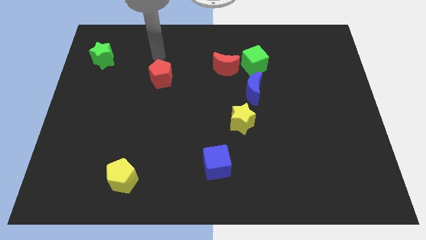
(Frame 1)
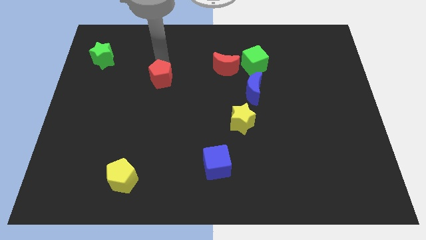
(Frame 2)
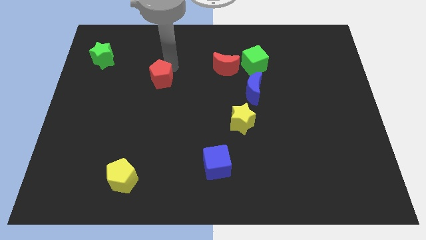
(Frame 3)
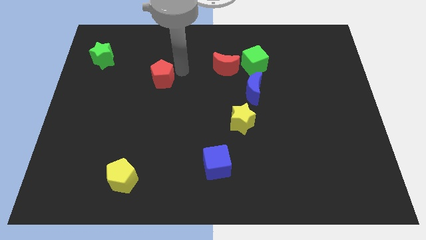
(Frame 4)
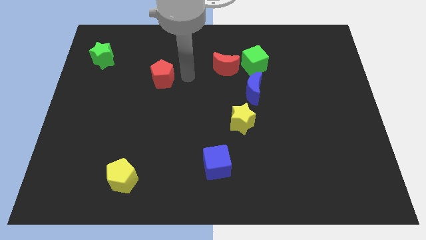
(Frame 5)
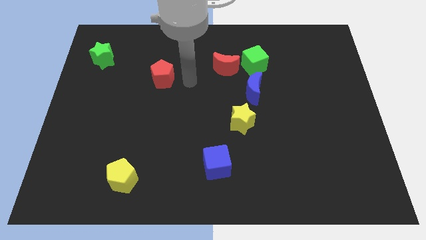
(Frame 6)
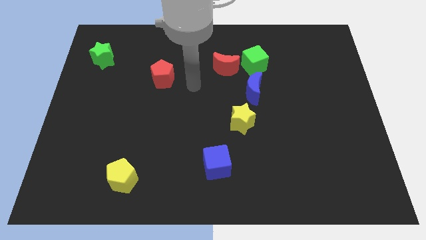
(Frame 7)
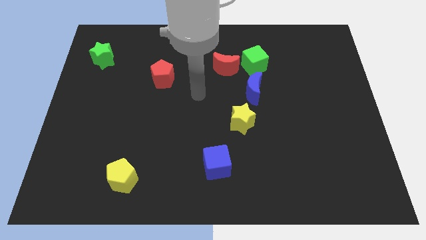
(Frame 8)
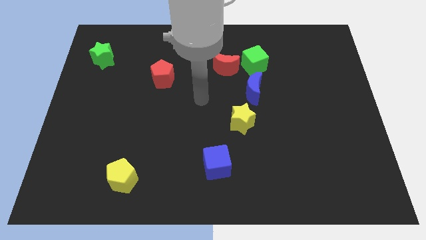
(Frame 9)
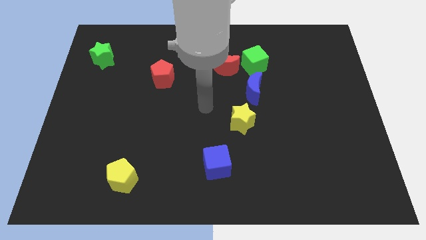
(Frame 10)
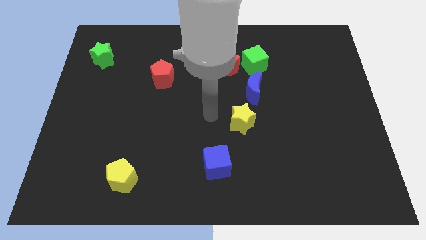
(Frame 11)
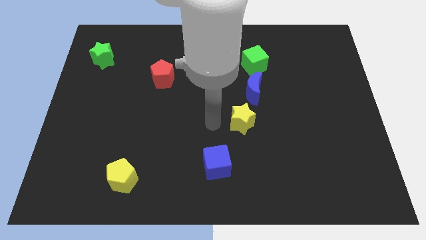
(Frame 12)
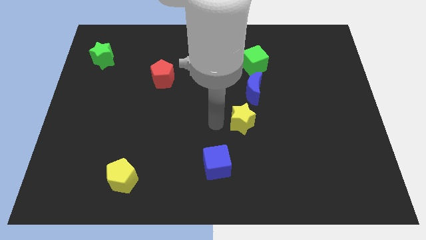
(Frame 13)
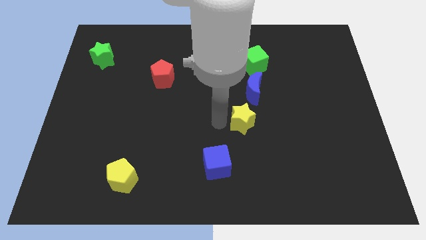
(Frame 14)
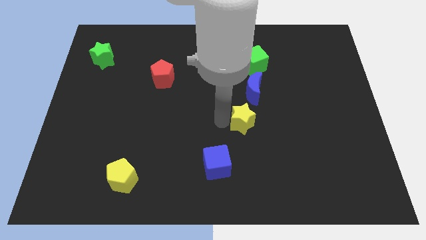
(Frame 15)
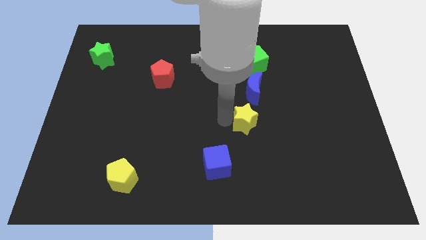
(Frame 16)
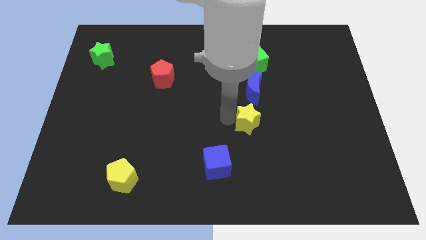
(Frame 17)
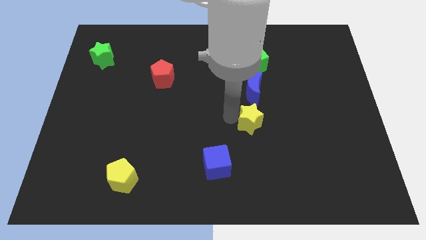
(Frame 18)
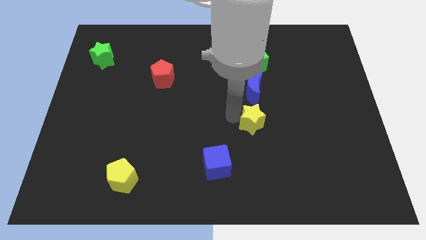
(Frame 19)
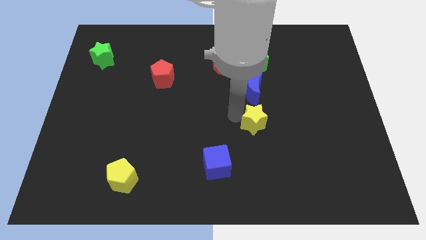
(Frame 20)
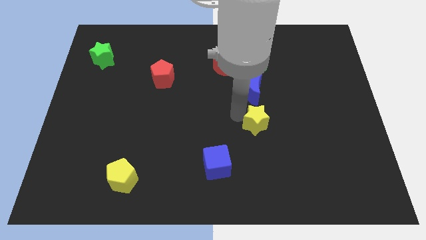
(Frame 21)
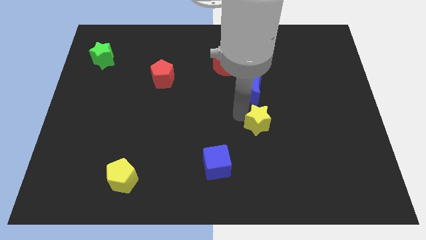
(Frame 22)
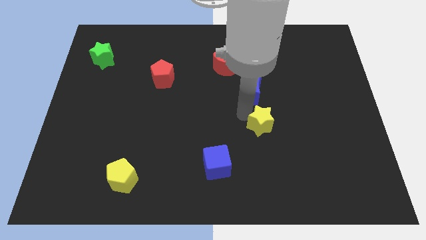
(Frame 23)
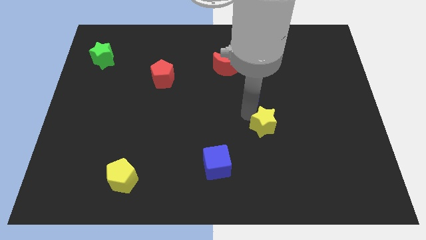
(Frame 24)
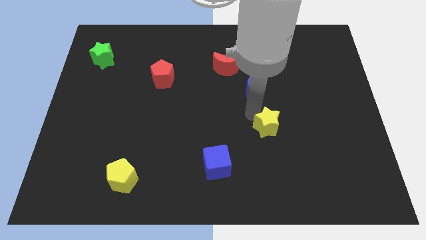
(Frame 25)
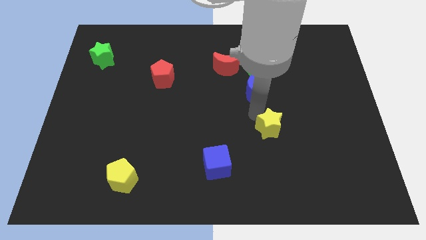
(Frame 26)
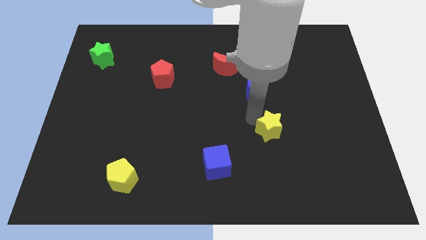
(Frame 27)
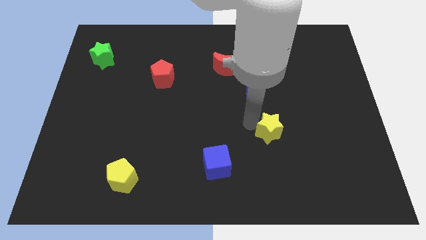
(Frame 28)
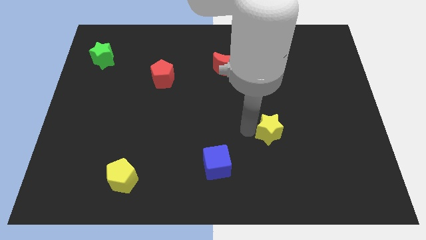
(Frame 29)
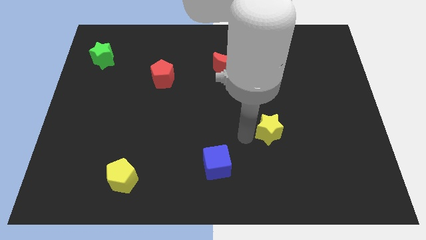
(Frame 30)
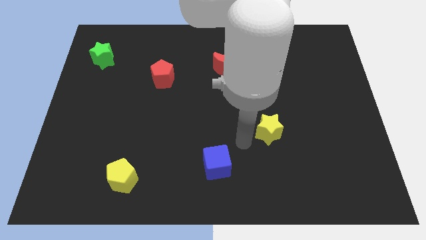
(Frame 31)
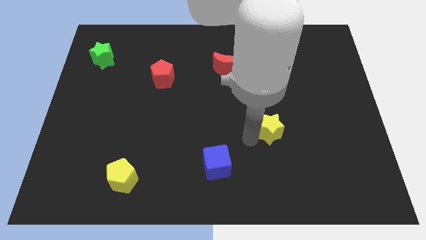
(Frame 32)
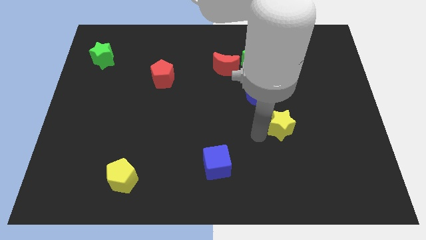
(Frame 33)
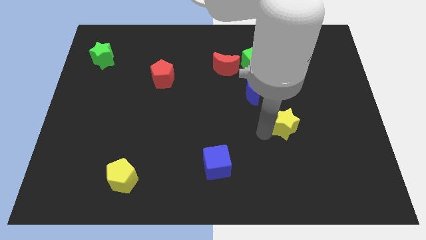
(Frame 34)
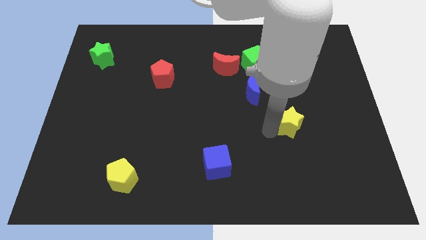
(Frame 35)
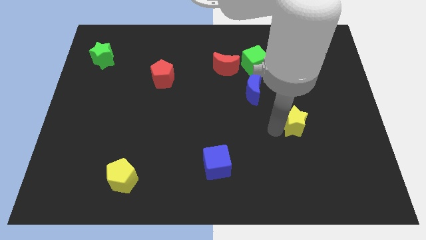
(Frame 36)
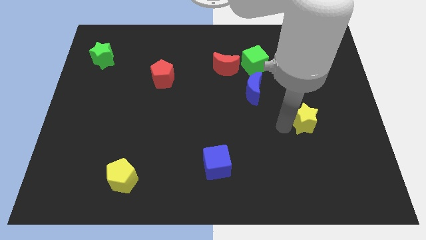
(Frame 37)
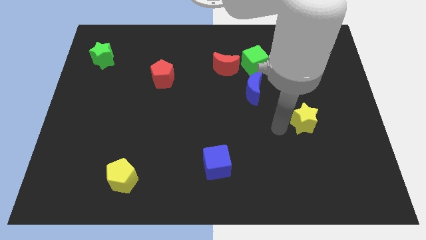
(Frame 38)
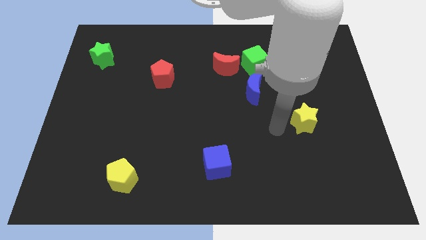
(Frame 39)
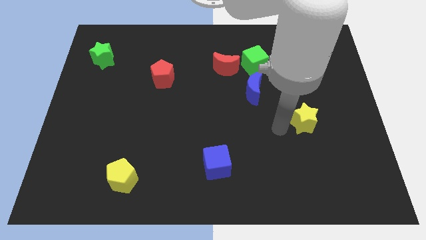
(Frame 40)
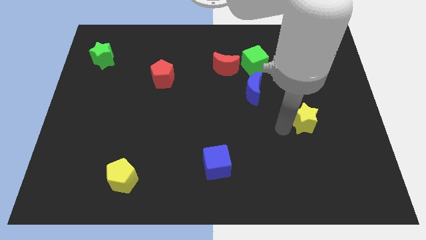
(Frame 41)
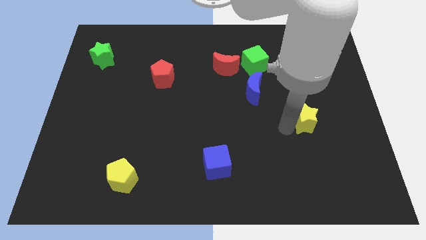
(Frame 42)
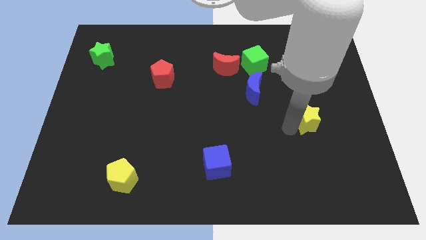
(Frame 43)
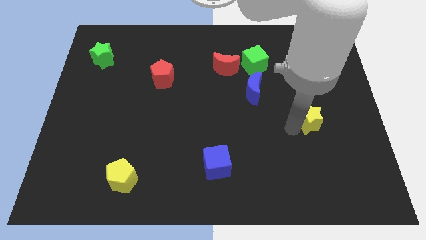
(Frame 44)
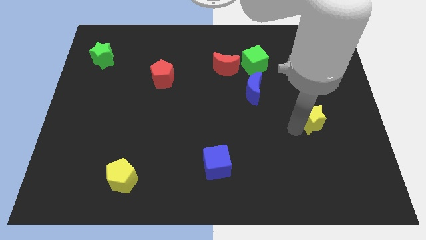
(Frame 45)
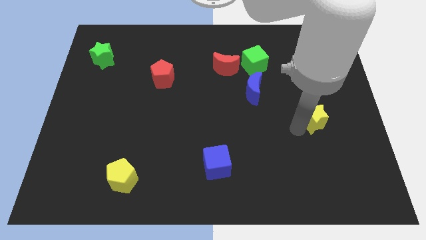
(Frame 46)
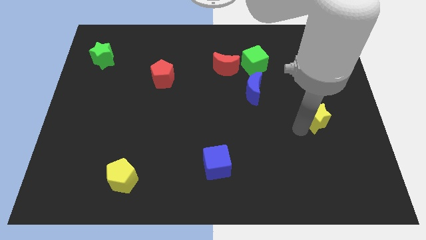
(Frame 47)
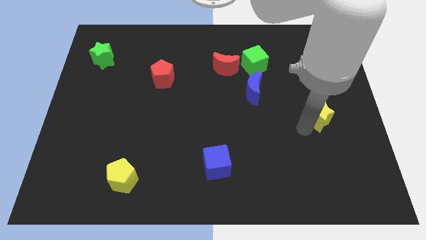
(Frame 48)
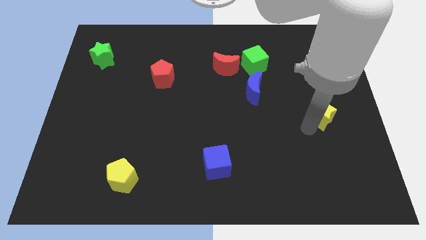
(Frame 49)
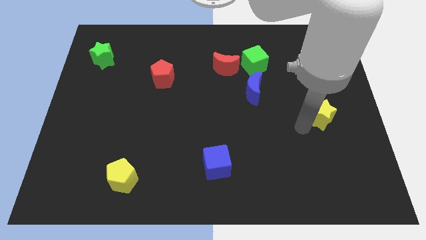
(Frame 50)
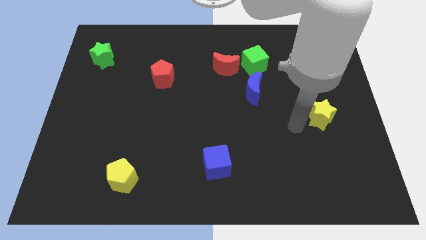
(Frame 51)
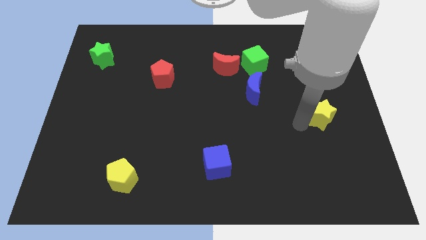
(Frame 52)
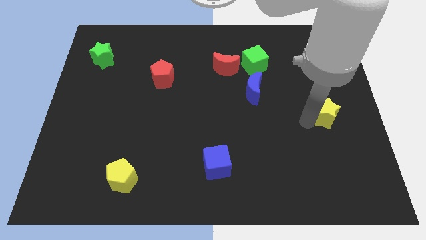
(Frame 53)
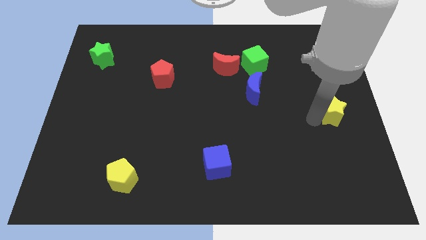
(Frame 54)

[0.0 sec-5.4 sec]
move the yellow star to the center right

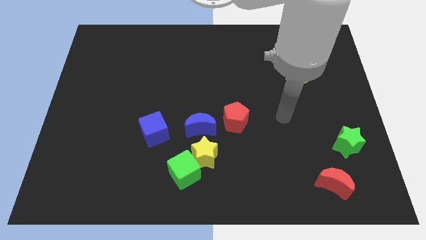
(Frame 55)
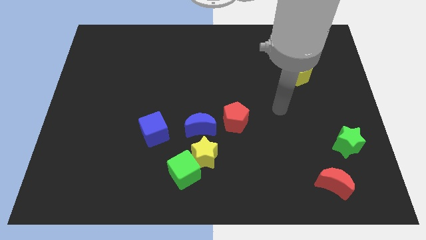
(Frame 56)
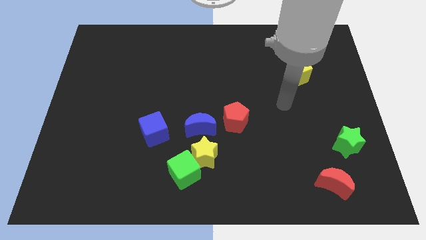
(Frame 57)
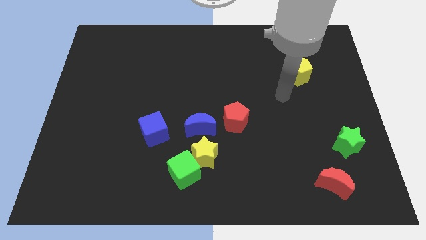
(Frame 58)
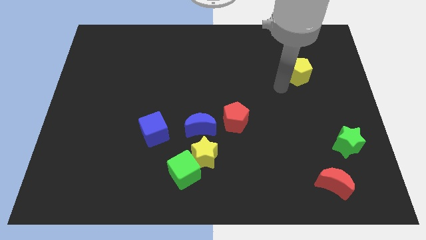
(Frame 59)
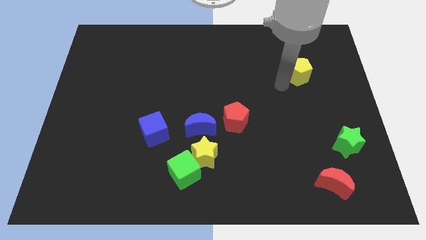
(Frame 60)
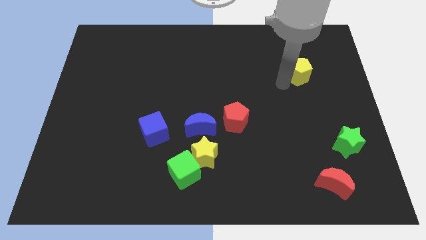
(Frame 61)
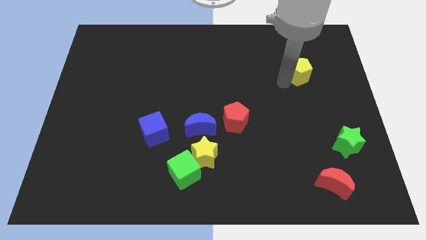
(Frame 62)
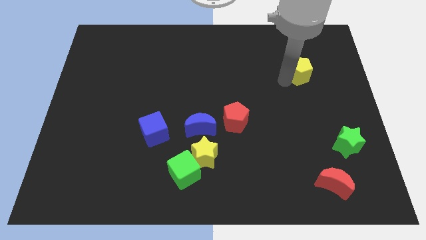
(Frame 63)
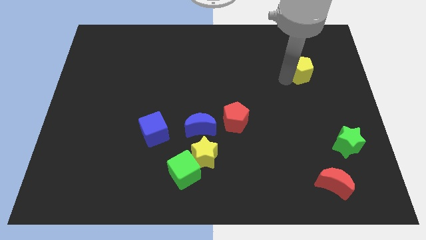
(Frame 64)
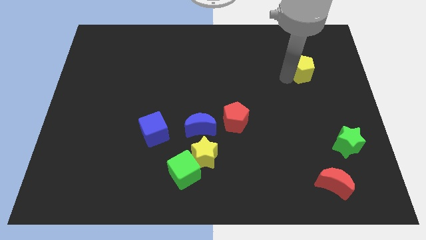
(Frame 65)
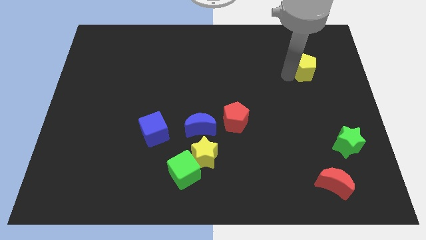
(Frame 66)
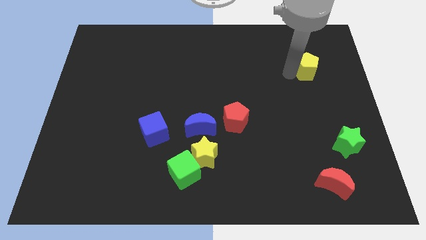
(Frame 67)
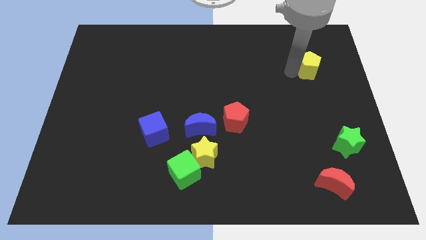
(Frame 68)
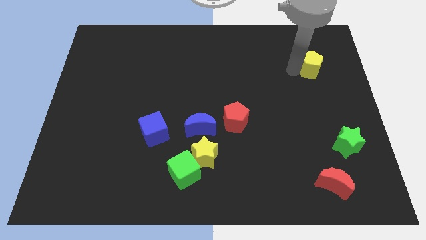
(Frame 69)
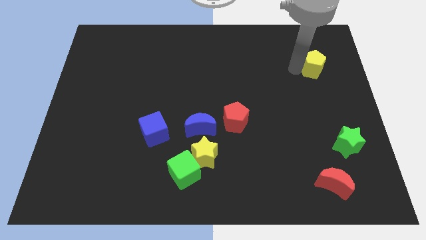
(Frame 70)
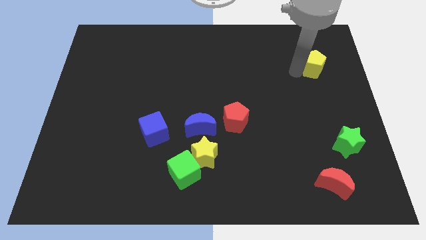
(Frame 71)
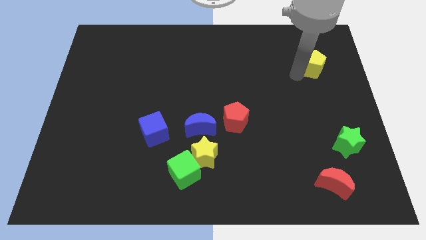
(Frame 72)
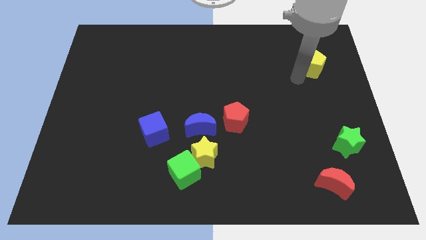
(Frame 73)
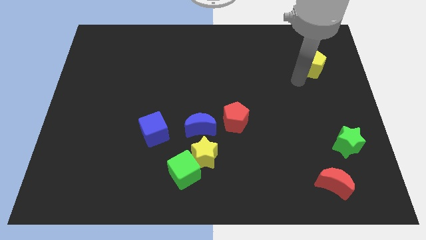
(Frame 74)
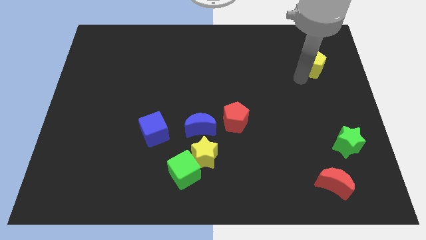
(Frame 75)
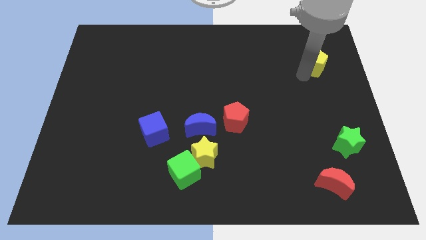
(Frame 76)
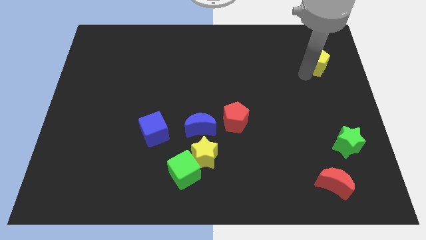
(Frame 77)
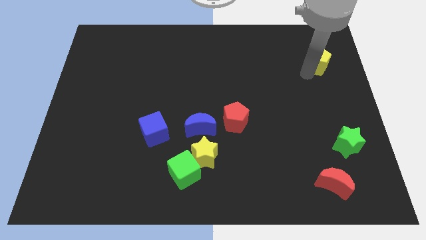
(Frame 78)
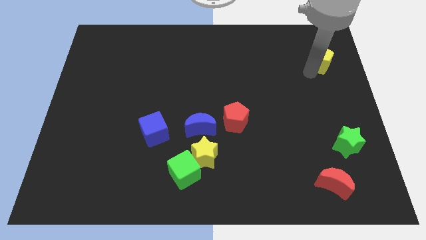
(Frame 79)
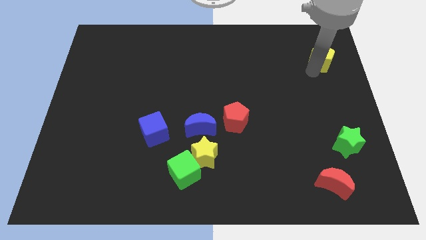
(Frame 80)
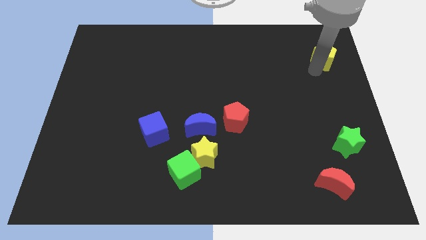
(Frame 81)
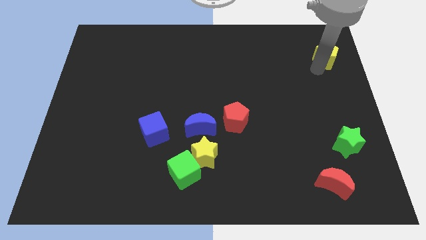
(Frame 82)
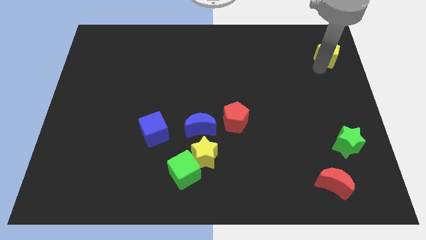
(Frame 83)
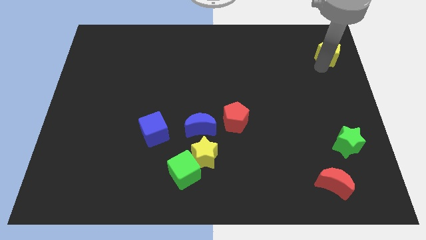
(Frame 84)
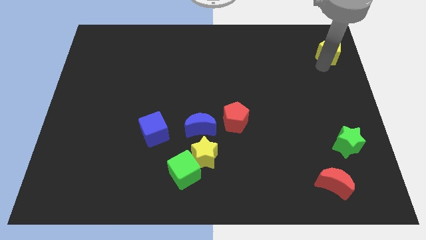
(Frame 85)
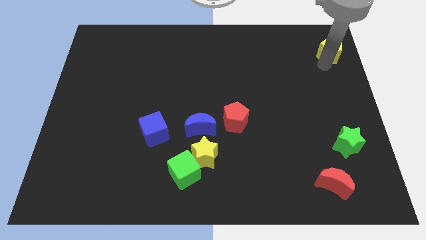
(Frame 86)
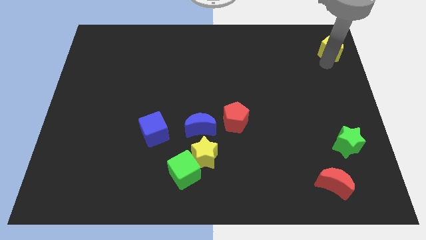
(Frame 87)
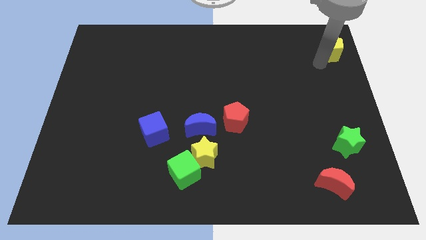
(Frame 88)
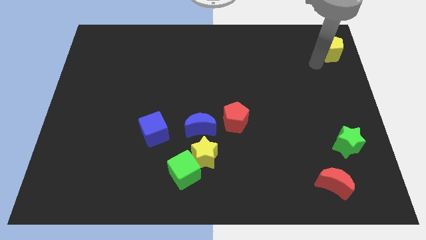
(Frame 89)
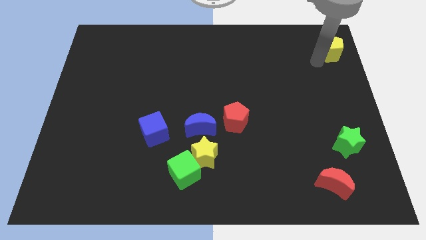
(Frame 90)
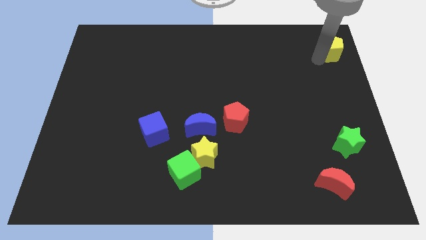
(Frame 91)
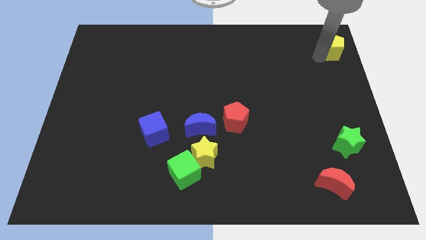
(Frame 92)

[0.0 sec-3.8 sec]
slide the yellow pentagon to the top right
